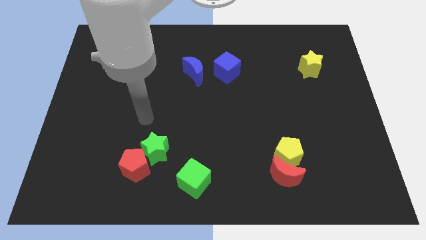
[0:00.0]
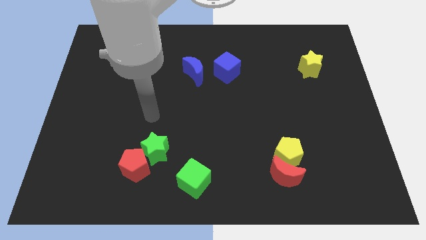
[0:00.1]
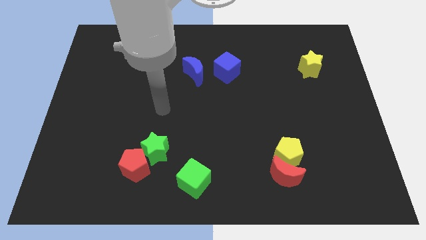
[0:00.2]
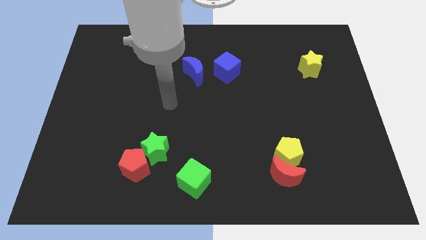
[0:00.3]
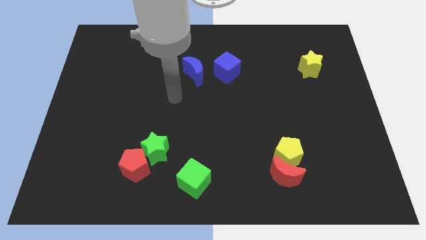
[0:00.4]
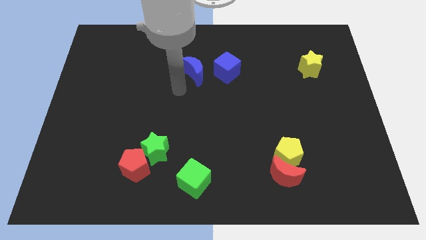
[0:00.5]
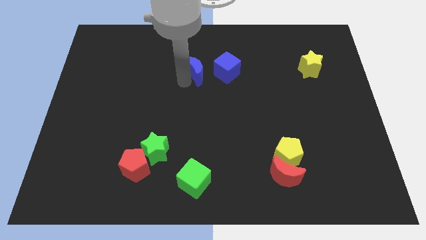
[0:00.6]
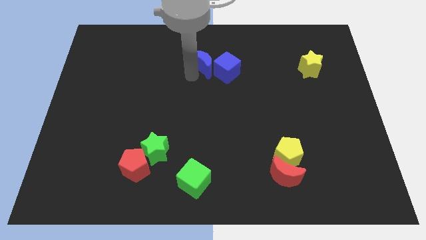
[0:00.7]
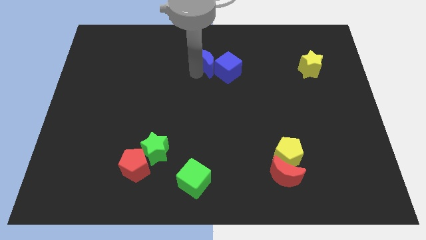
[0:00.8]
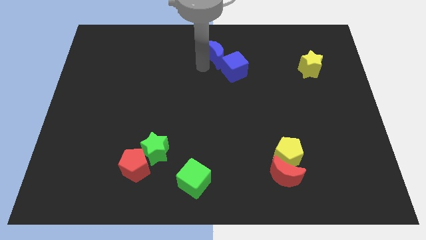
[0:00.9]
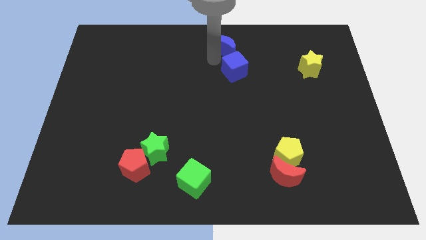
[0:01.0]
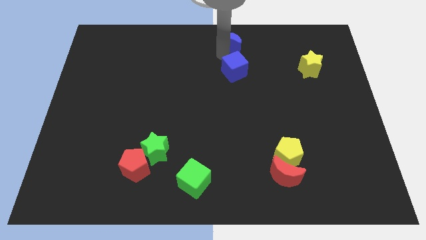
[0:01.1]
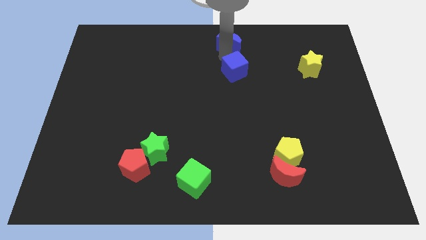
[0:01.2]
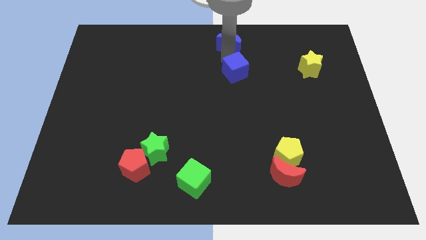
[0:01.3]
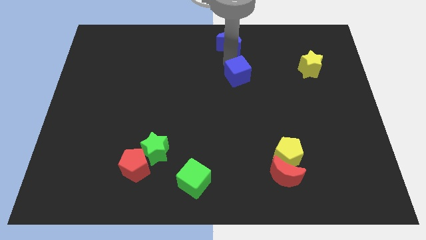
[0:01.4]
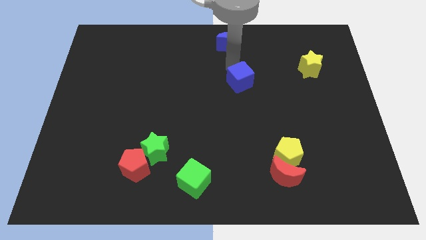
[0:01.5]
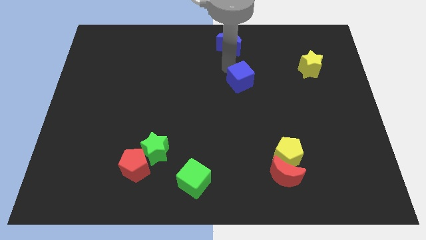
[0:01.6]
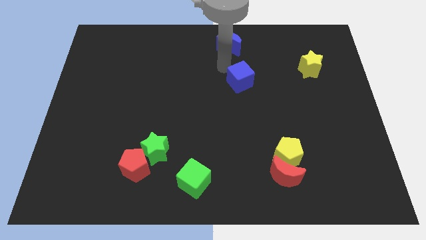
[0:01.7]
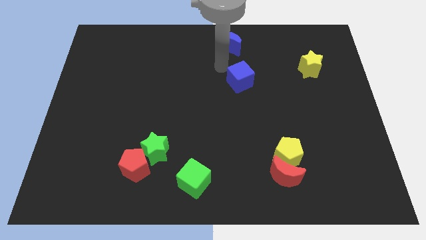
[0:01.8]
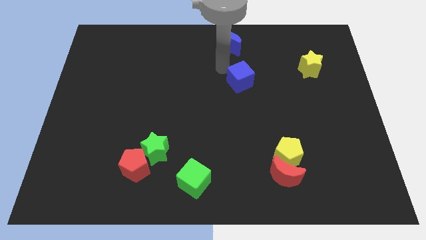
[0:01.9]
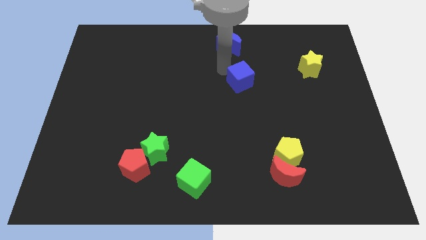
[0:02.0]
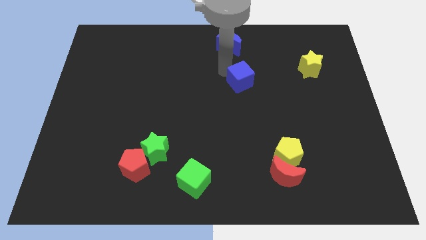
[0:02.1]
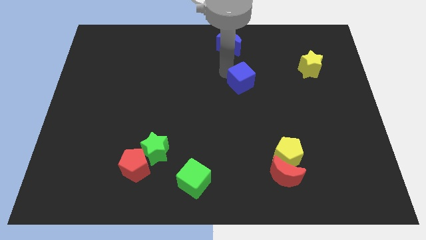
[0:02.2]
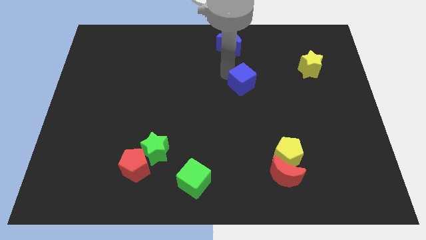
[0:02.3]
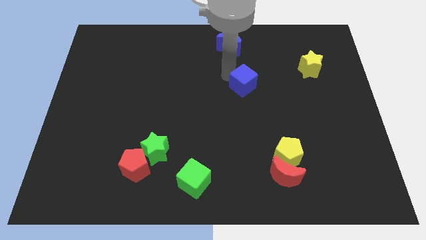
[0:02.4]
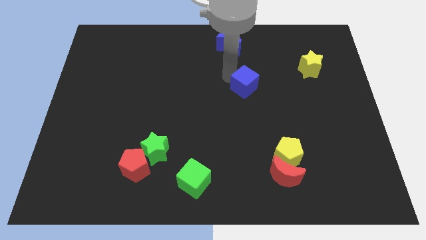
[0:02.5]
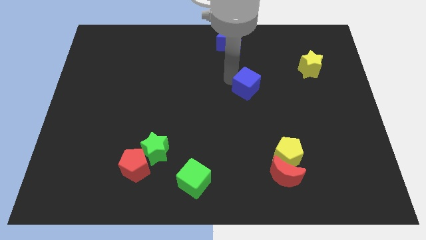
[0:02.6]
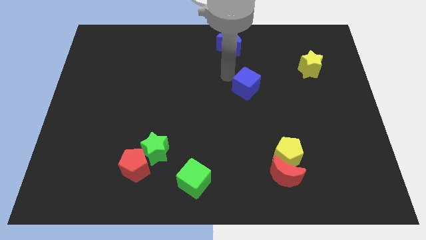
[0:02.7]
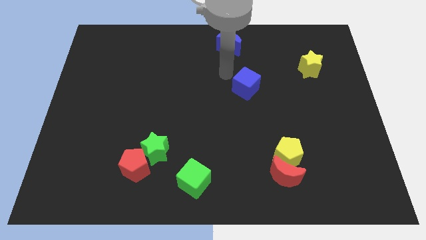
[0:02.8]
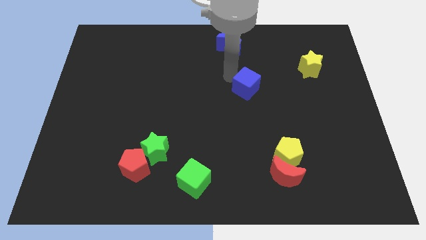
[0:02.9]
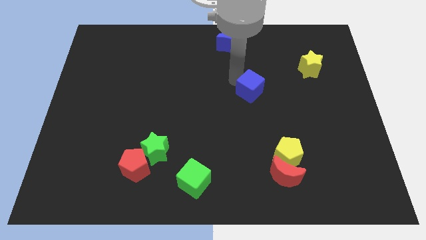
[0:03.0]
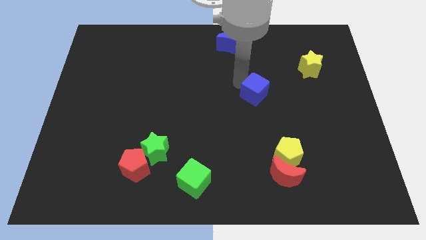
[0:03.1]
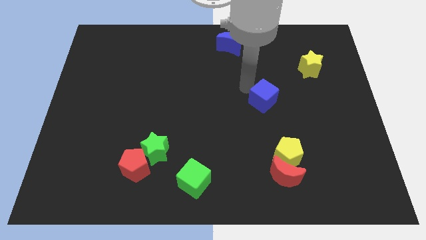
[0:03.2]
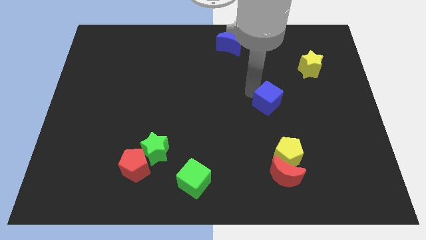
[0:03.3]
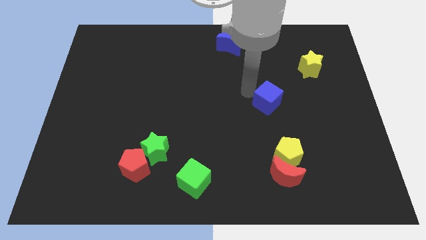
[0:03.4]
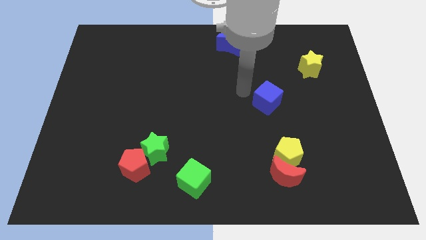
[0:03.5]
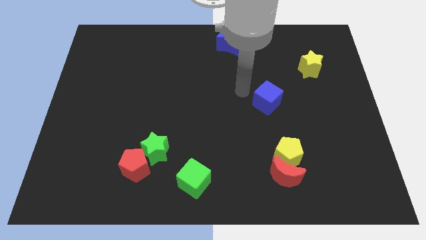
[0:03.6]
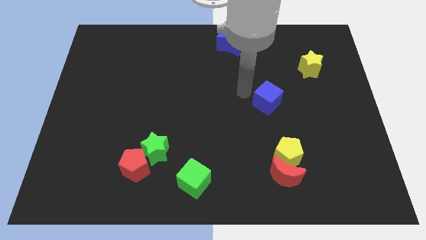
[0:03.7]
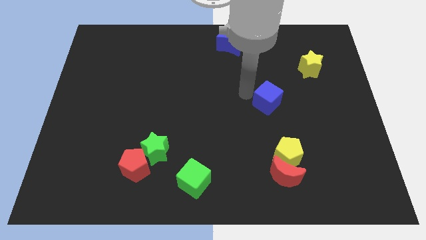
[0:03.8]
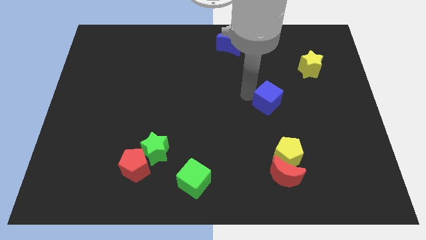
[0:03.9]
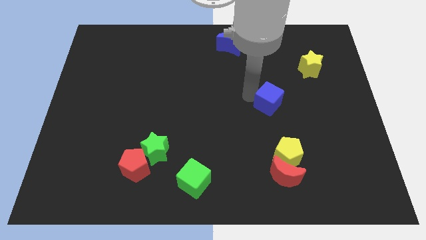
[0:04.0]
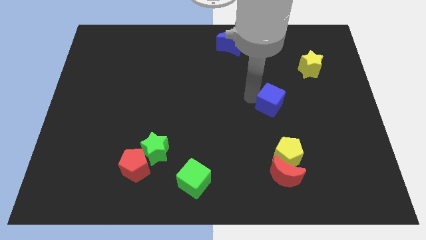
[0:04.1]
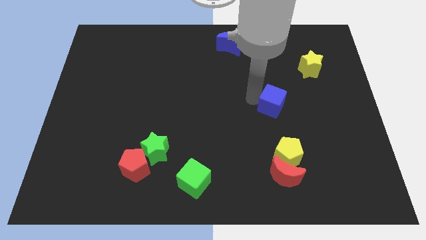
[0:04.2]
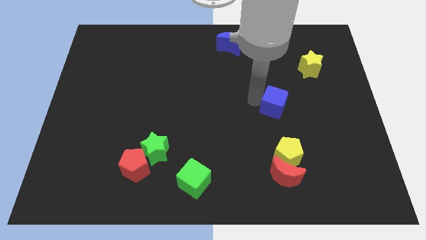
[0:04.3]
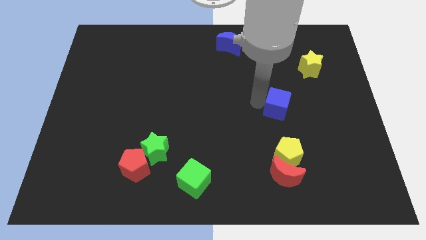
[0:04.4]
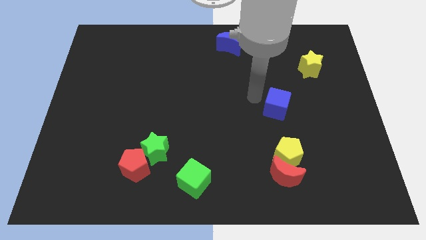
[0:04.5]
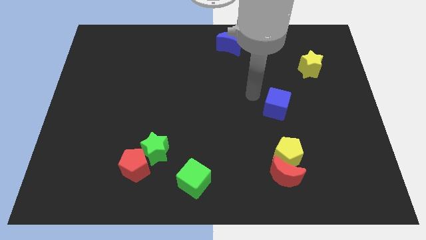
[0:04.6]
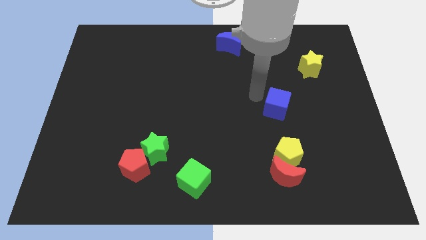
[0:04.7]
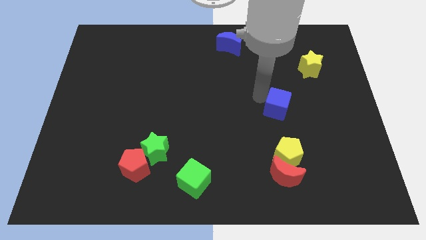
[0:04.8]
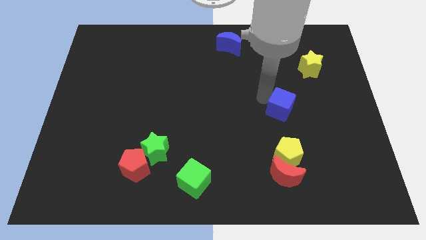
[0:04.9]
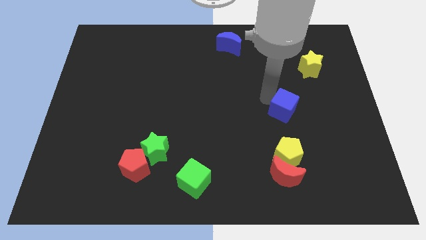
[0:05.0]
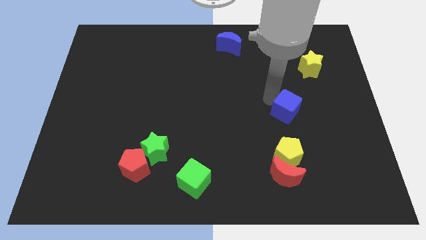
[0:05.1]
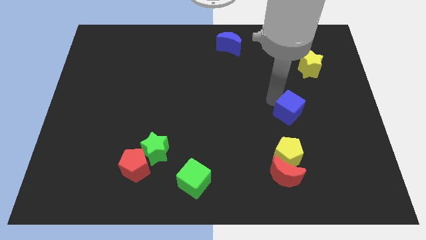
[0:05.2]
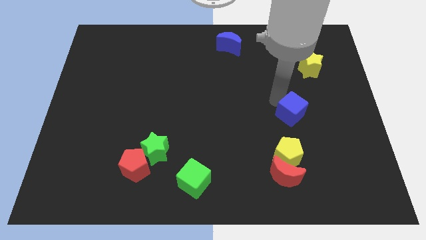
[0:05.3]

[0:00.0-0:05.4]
move the blue cube down and to the right

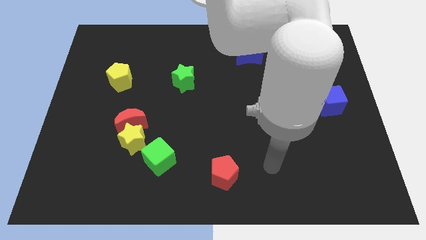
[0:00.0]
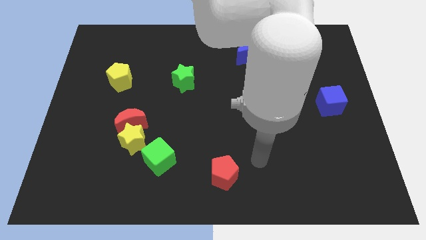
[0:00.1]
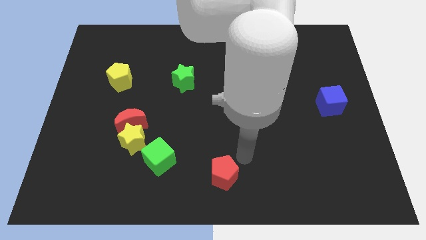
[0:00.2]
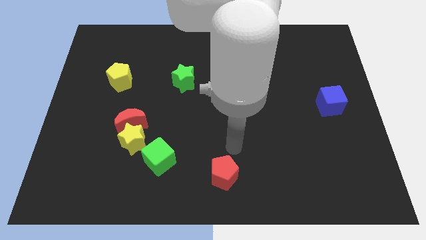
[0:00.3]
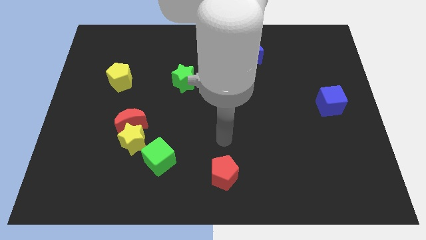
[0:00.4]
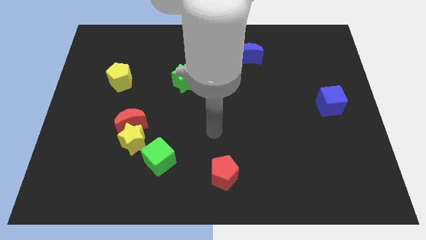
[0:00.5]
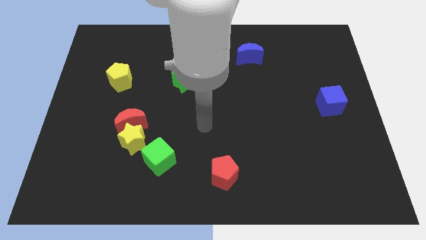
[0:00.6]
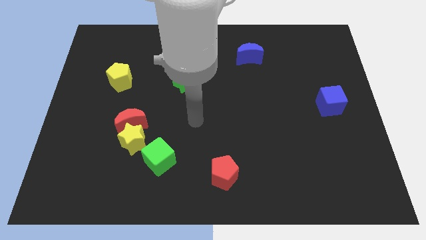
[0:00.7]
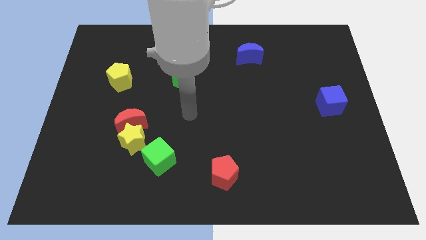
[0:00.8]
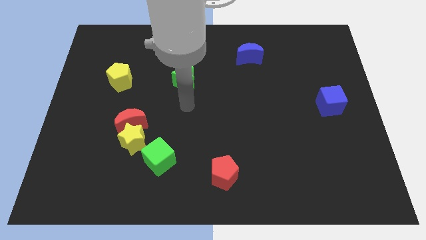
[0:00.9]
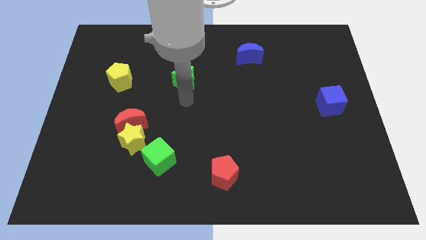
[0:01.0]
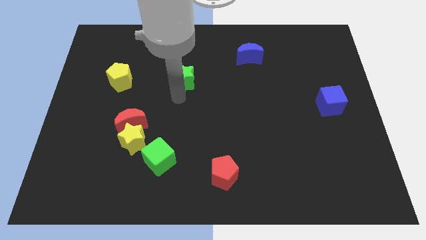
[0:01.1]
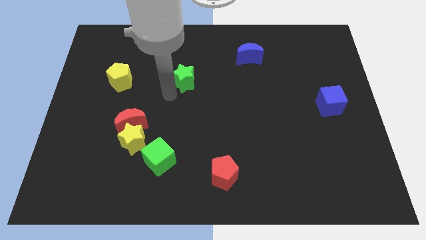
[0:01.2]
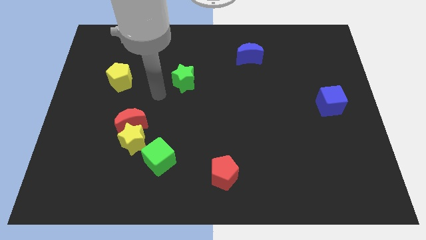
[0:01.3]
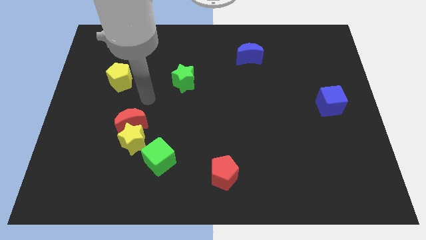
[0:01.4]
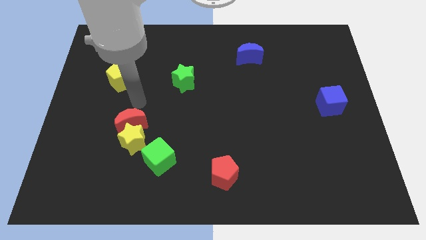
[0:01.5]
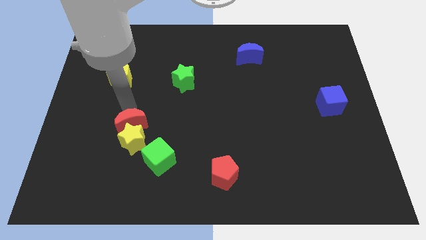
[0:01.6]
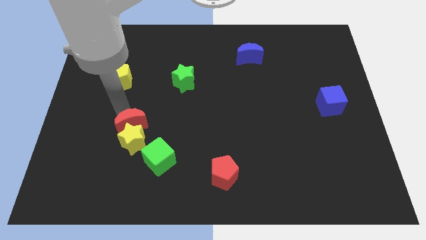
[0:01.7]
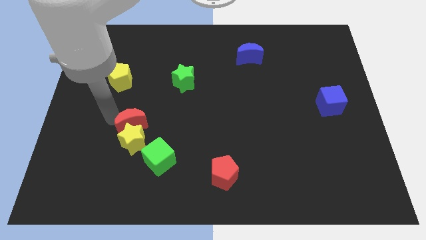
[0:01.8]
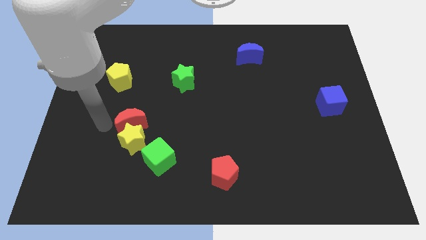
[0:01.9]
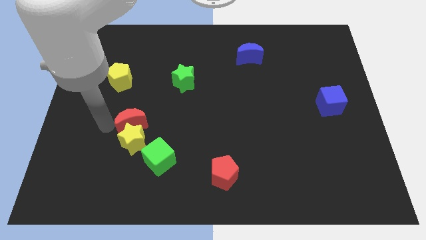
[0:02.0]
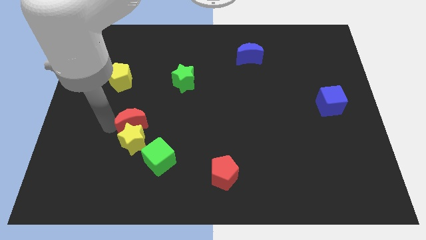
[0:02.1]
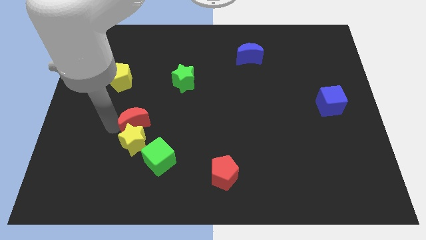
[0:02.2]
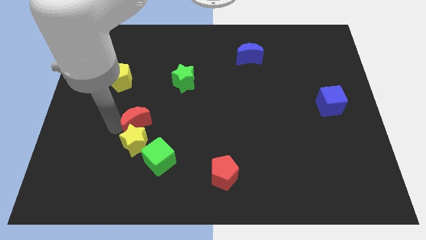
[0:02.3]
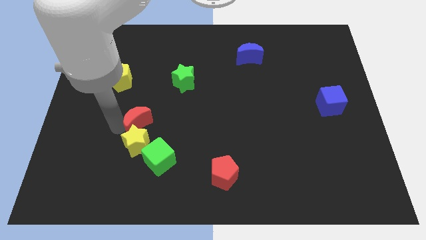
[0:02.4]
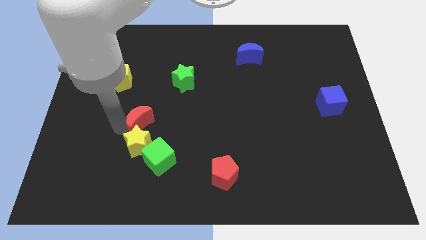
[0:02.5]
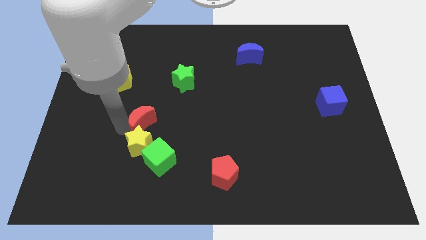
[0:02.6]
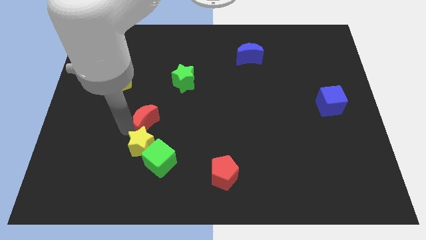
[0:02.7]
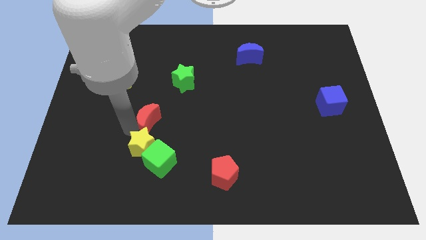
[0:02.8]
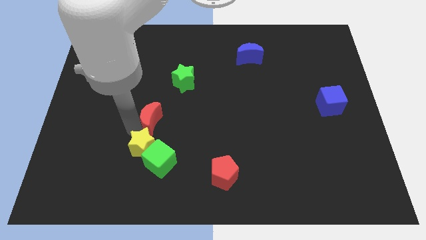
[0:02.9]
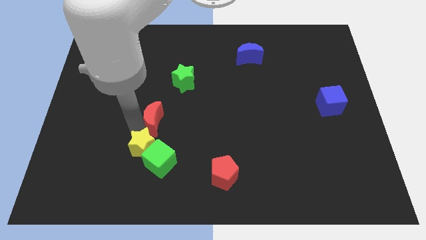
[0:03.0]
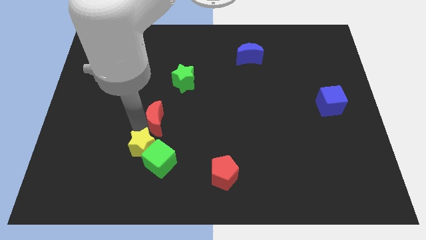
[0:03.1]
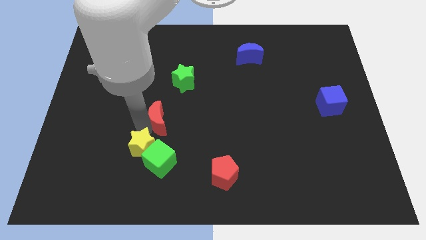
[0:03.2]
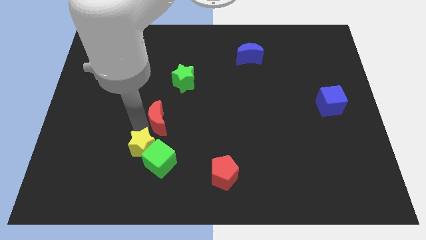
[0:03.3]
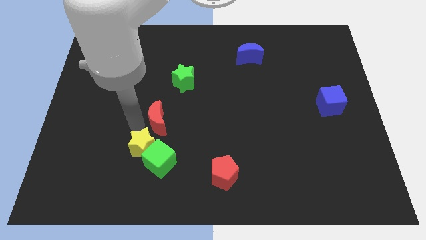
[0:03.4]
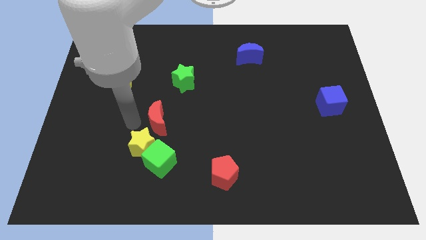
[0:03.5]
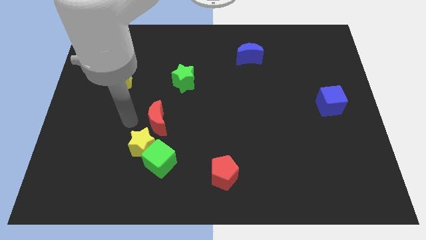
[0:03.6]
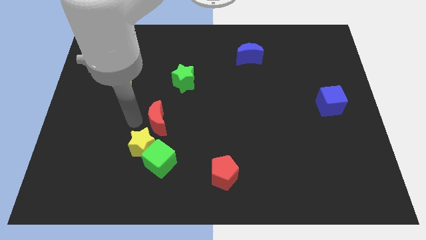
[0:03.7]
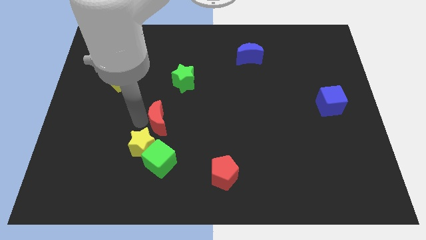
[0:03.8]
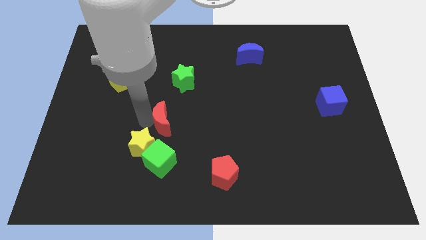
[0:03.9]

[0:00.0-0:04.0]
slightly slide the red moon right
